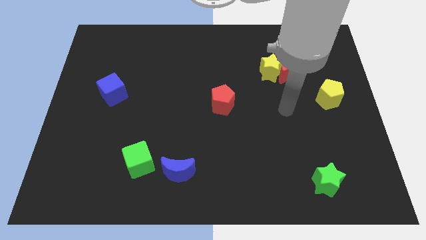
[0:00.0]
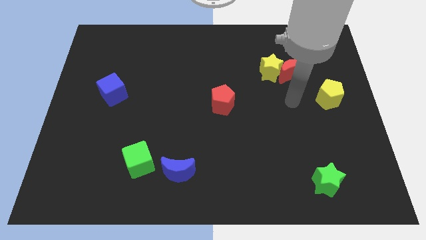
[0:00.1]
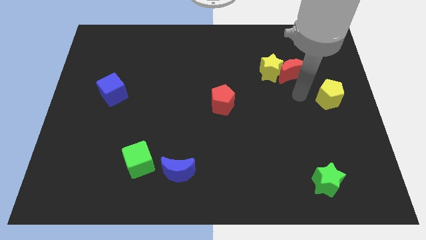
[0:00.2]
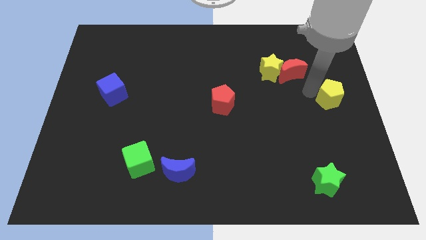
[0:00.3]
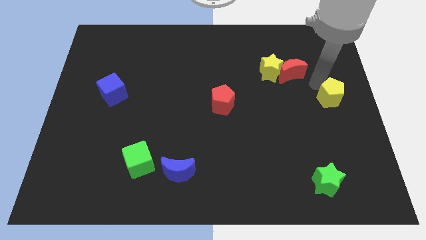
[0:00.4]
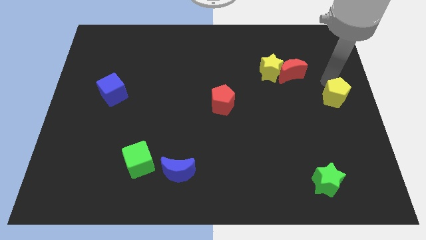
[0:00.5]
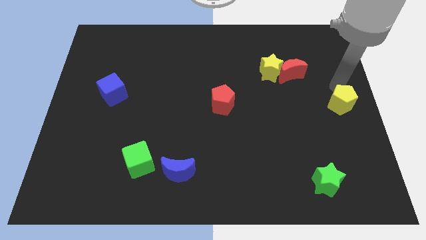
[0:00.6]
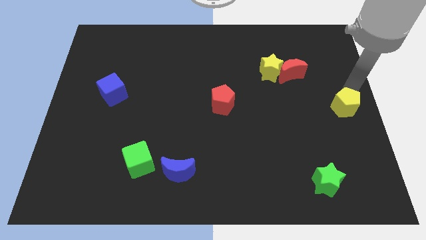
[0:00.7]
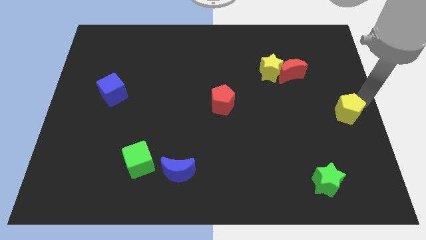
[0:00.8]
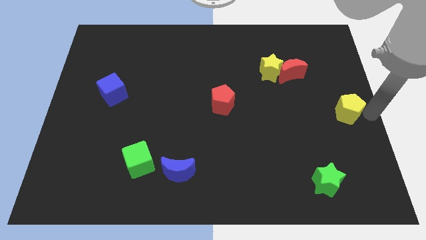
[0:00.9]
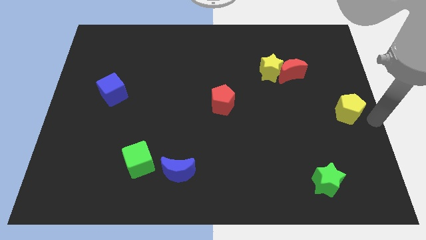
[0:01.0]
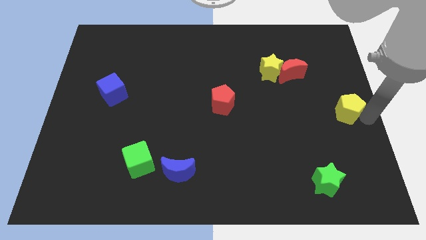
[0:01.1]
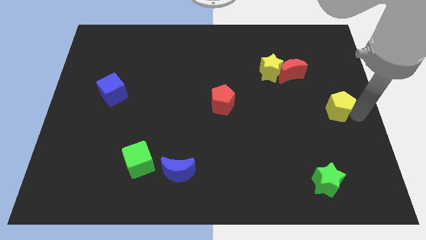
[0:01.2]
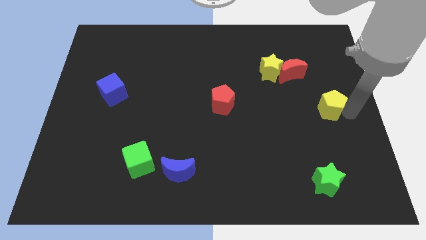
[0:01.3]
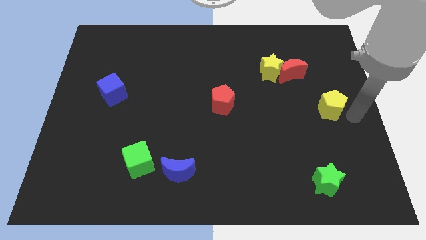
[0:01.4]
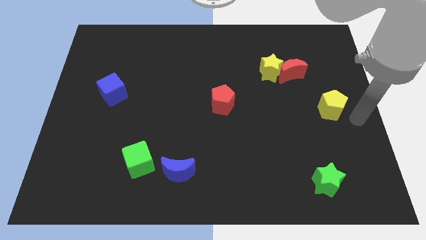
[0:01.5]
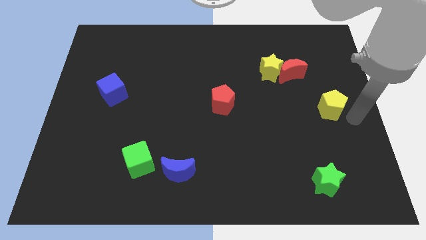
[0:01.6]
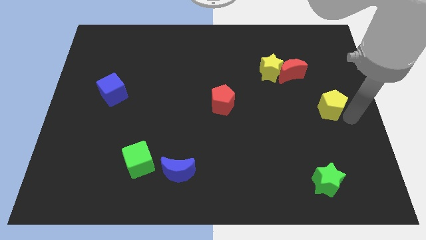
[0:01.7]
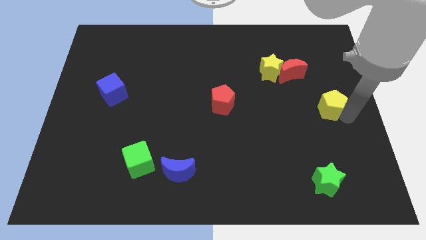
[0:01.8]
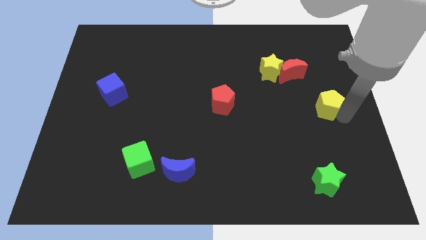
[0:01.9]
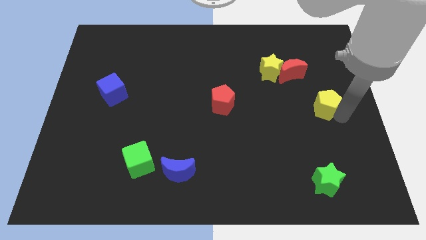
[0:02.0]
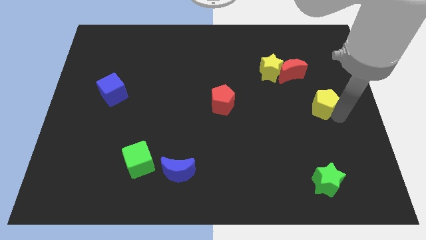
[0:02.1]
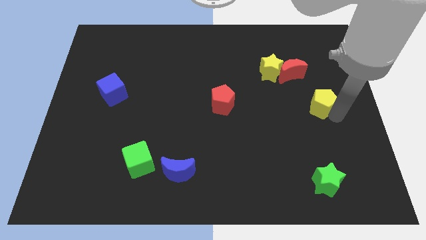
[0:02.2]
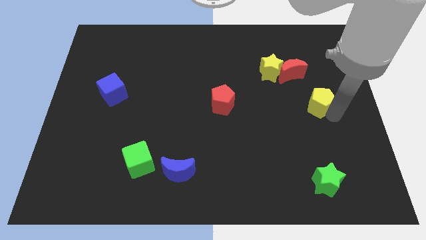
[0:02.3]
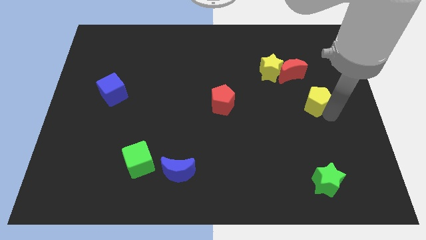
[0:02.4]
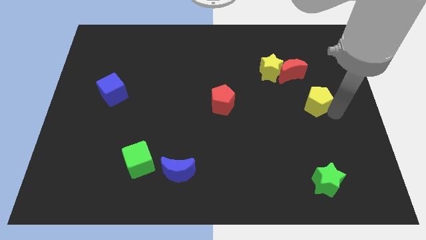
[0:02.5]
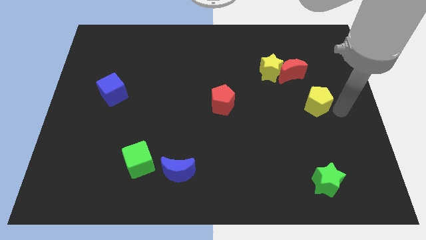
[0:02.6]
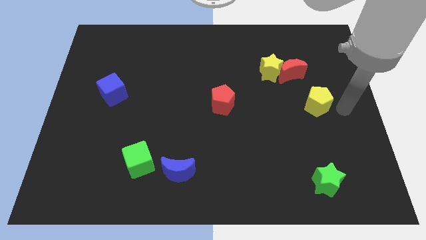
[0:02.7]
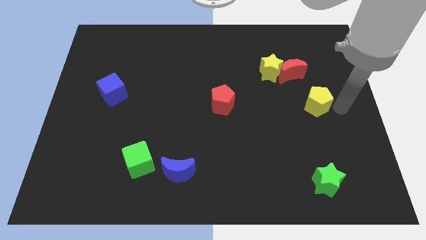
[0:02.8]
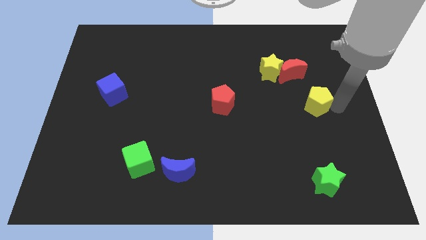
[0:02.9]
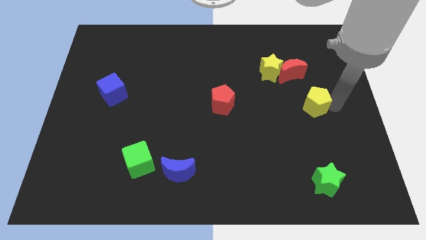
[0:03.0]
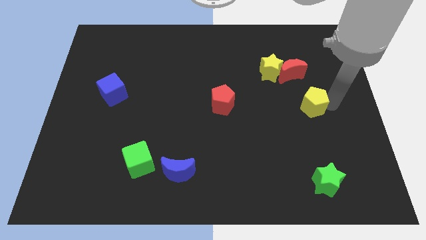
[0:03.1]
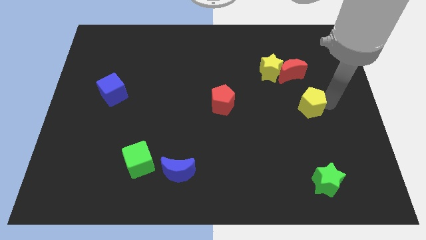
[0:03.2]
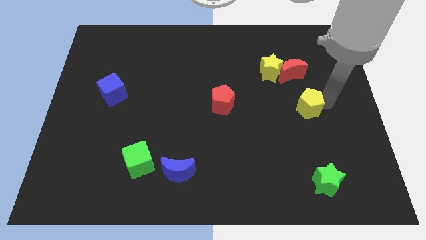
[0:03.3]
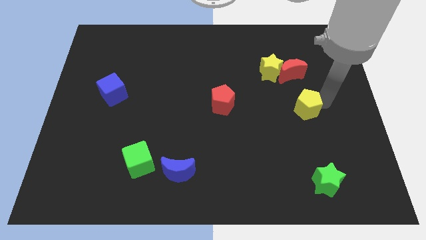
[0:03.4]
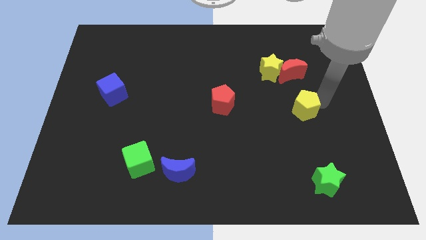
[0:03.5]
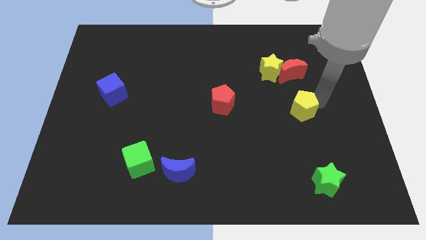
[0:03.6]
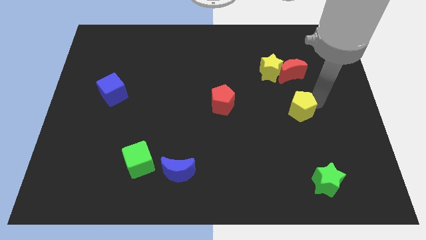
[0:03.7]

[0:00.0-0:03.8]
push the yellow pentagon somewhat to the left

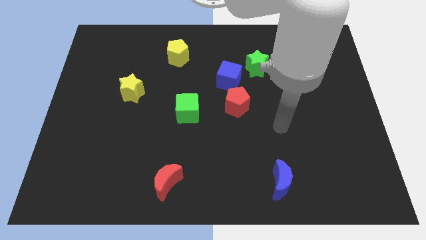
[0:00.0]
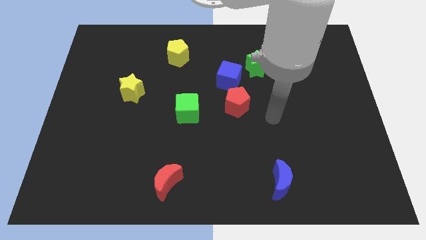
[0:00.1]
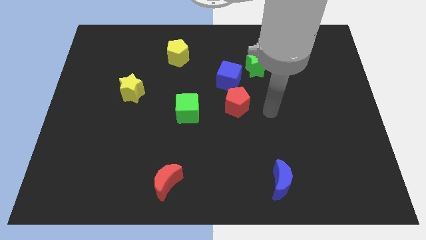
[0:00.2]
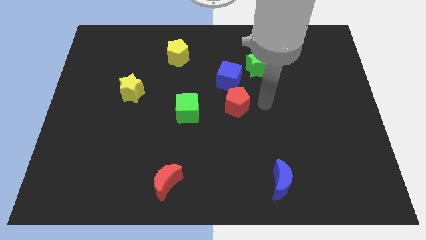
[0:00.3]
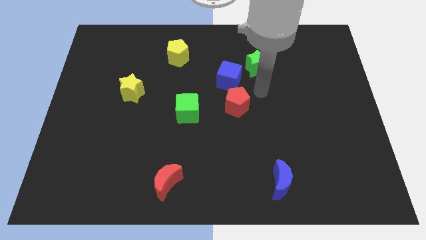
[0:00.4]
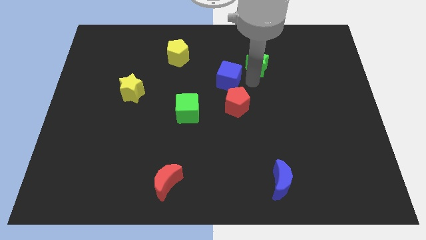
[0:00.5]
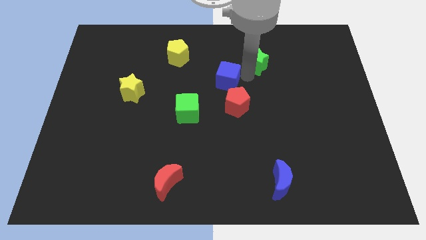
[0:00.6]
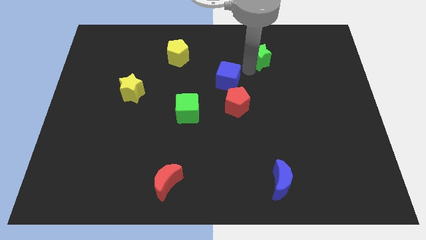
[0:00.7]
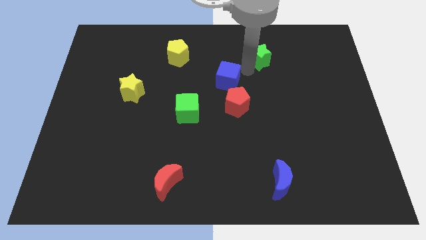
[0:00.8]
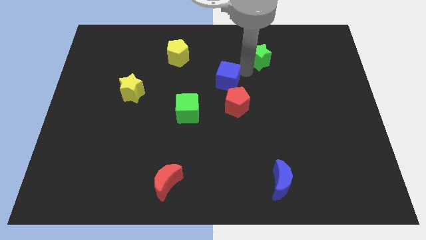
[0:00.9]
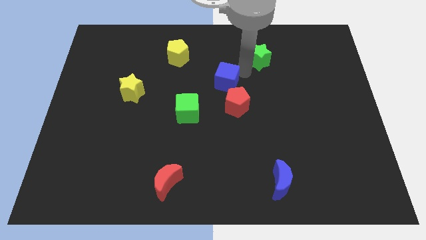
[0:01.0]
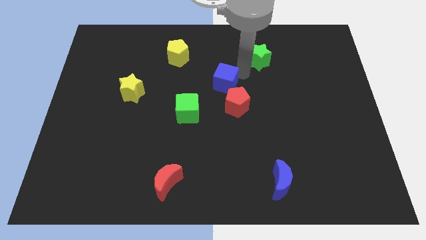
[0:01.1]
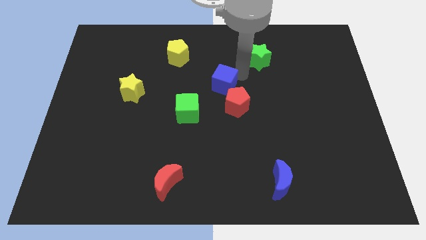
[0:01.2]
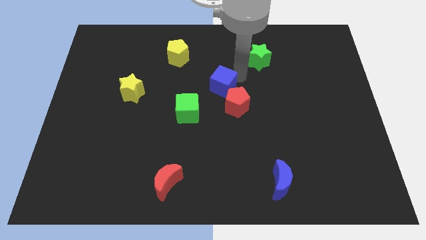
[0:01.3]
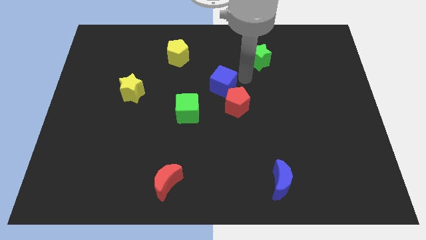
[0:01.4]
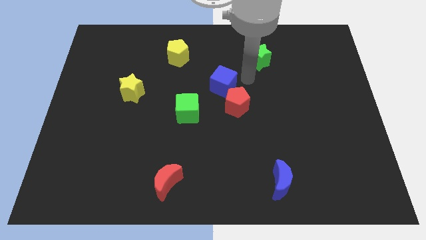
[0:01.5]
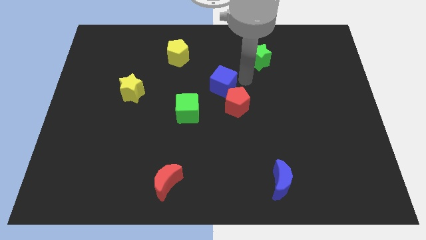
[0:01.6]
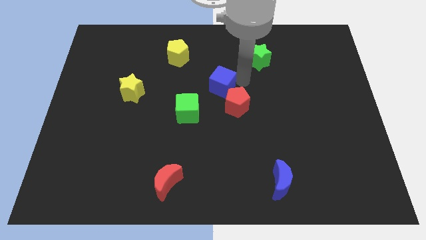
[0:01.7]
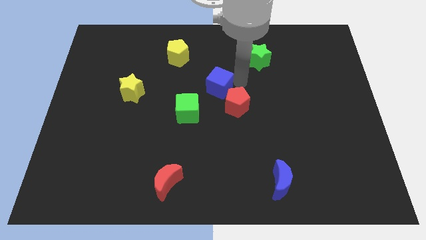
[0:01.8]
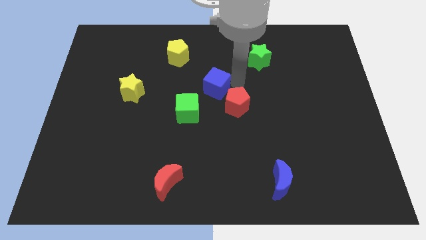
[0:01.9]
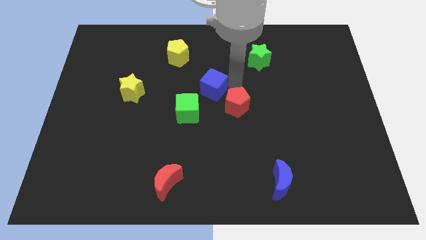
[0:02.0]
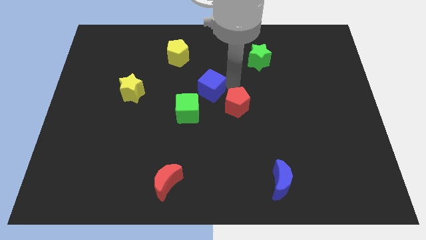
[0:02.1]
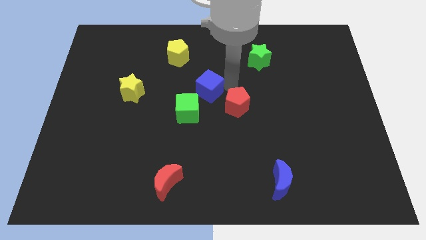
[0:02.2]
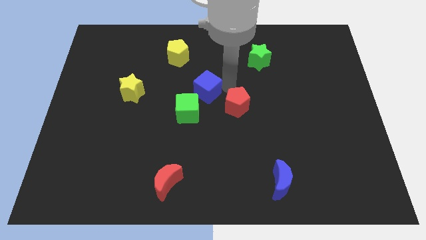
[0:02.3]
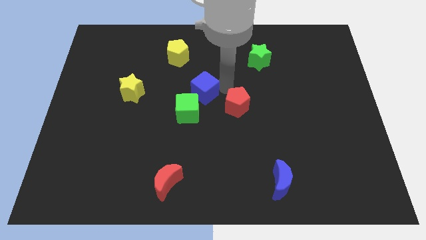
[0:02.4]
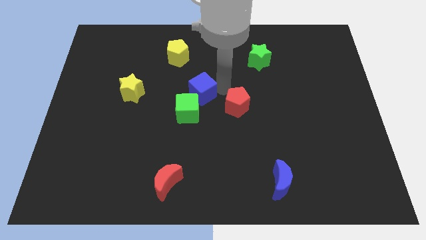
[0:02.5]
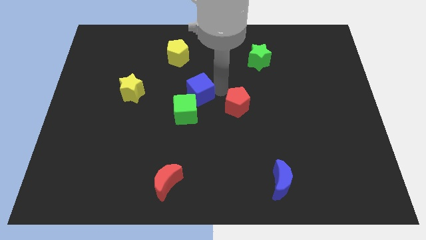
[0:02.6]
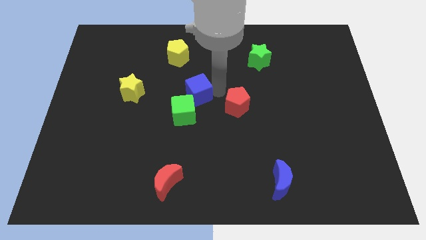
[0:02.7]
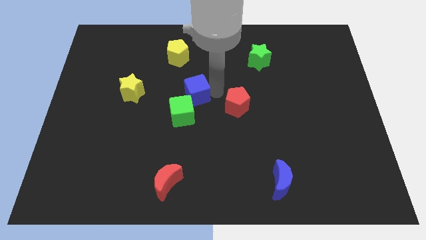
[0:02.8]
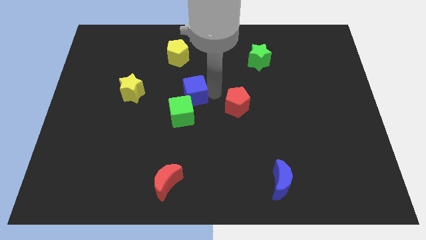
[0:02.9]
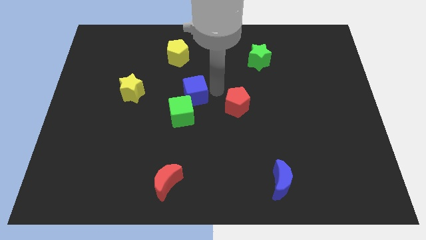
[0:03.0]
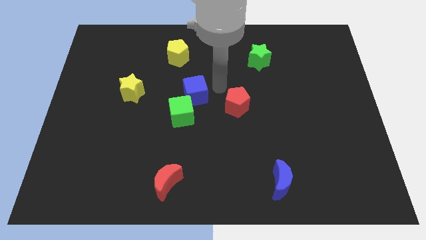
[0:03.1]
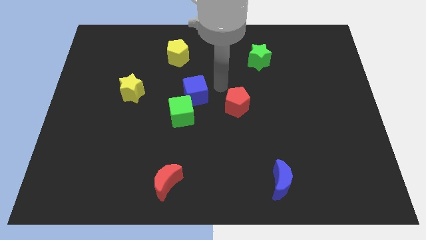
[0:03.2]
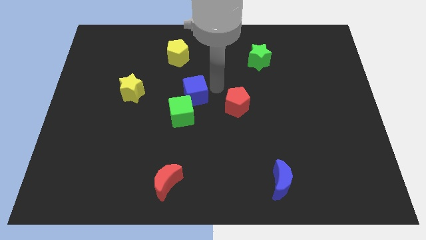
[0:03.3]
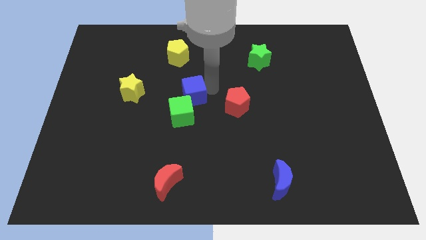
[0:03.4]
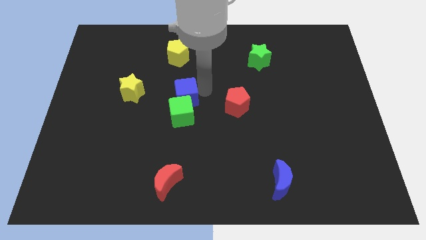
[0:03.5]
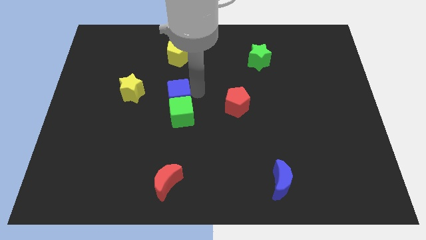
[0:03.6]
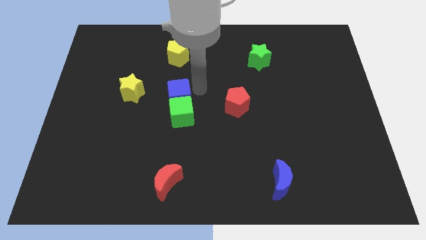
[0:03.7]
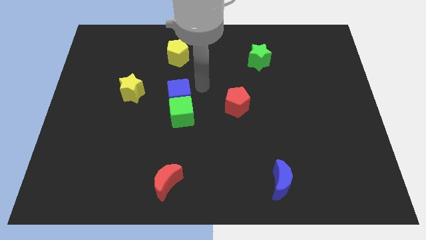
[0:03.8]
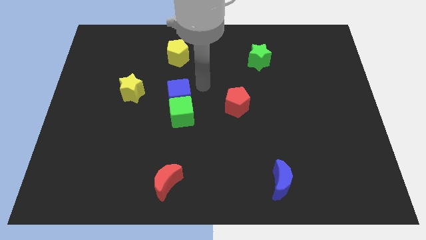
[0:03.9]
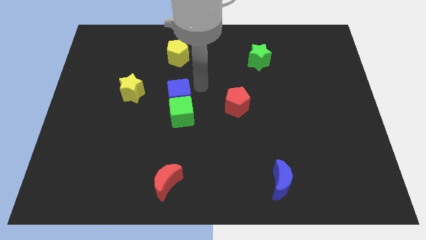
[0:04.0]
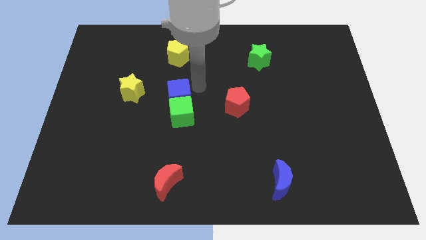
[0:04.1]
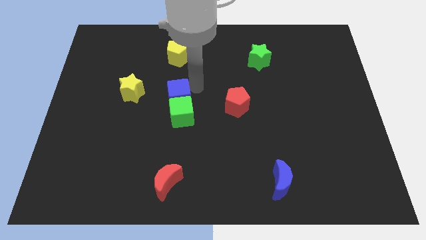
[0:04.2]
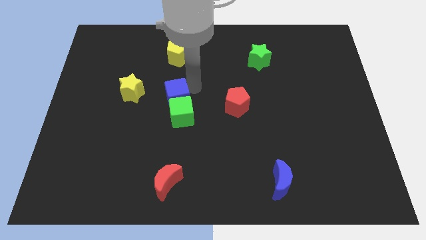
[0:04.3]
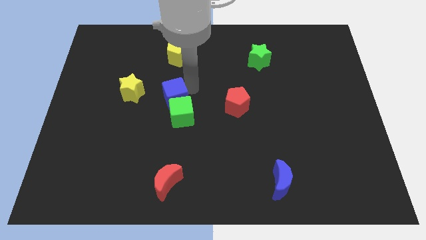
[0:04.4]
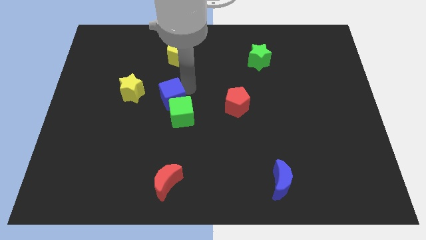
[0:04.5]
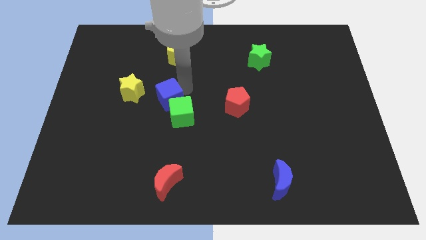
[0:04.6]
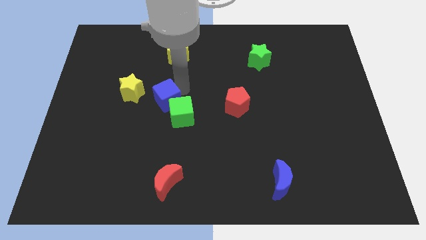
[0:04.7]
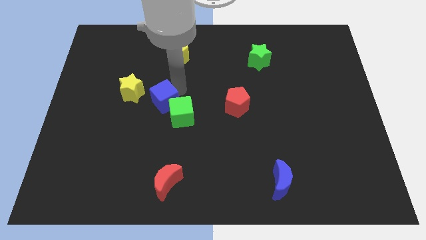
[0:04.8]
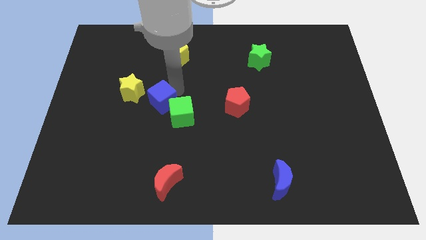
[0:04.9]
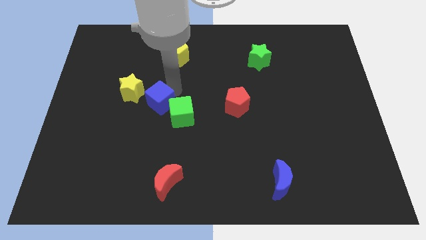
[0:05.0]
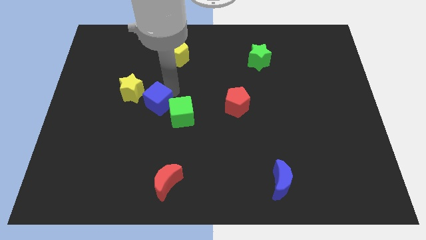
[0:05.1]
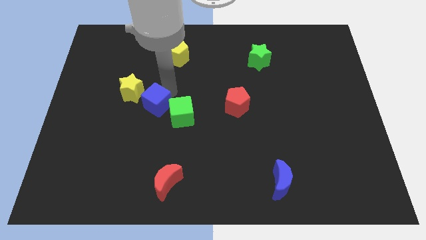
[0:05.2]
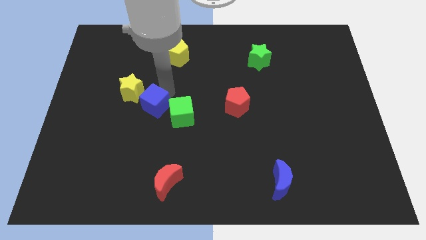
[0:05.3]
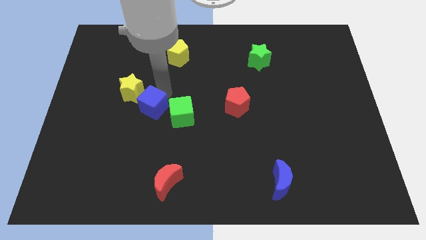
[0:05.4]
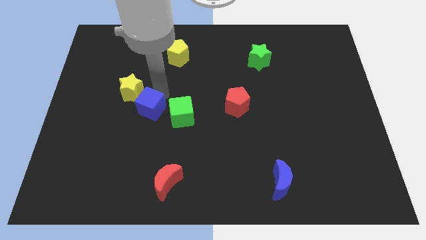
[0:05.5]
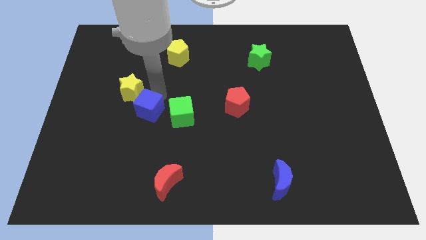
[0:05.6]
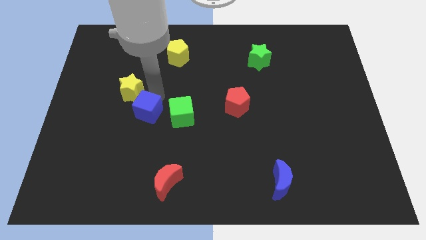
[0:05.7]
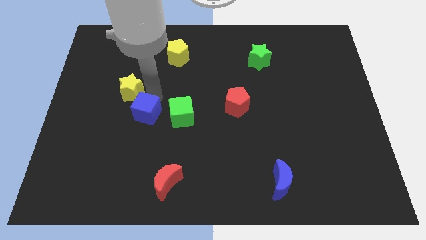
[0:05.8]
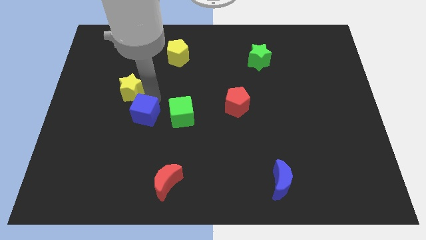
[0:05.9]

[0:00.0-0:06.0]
push the blue cube downwards and to the left diagonally
